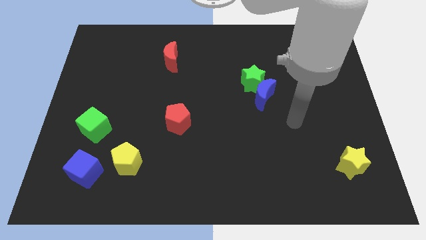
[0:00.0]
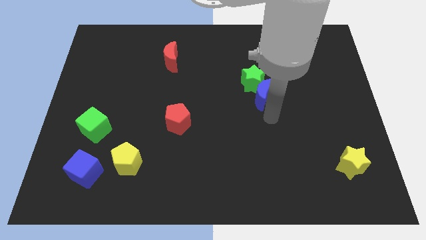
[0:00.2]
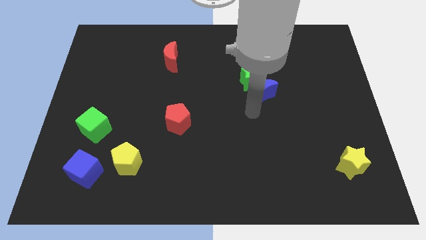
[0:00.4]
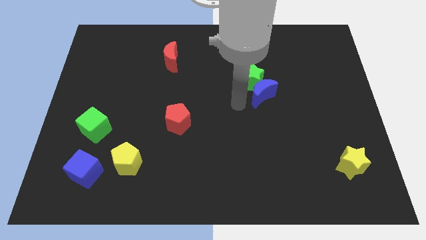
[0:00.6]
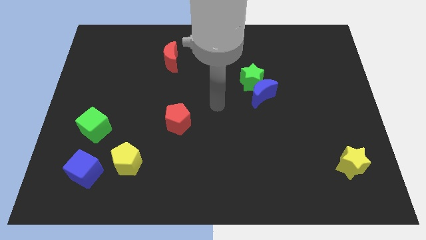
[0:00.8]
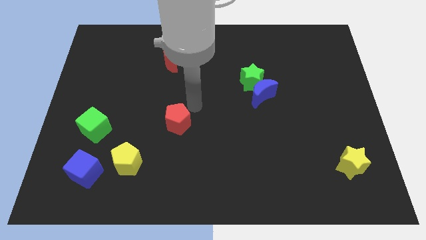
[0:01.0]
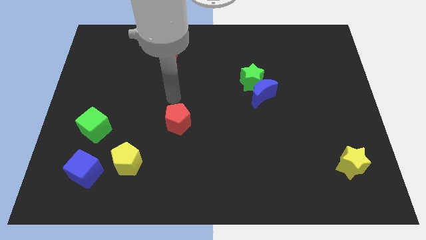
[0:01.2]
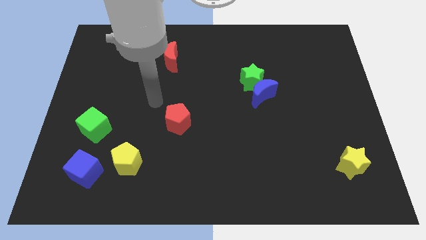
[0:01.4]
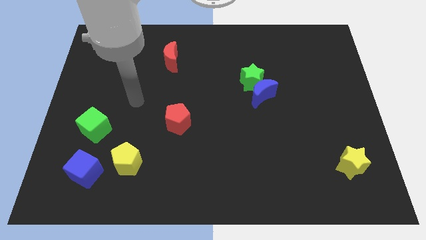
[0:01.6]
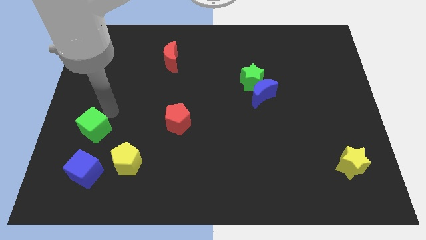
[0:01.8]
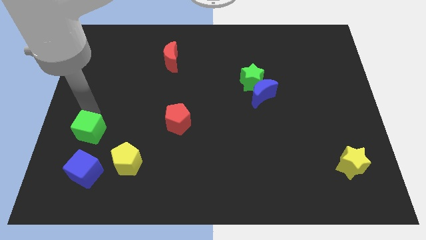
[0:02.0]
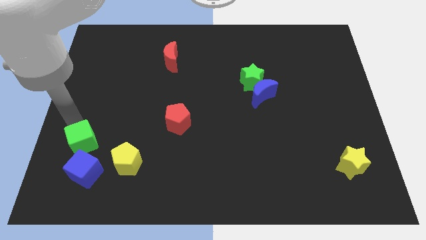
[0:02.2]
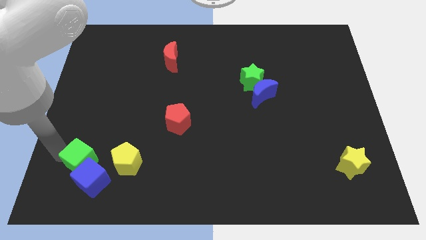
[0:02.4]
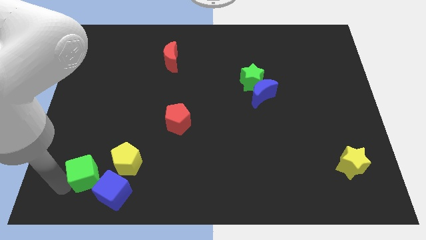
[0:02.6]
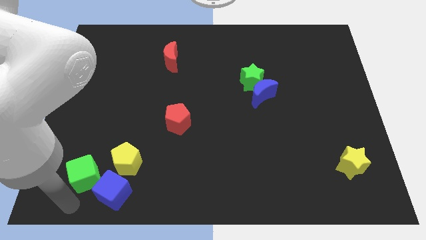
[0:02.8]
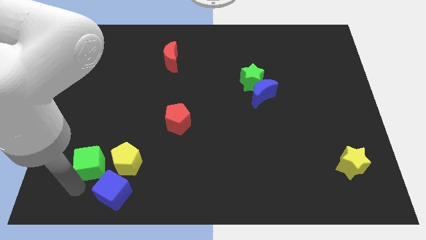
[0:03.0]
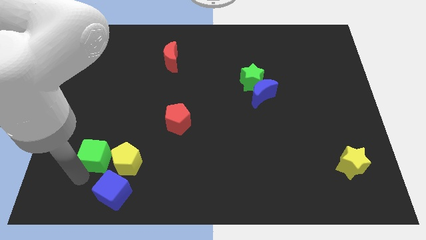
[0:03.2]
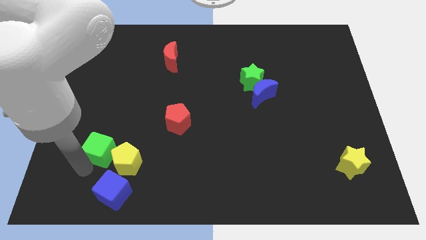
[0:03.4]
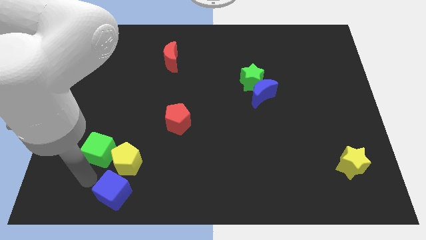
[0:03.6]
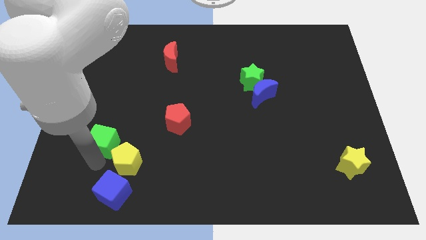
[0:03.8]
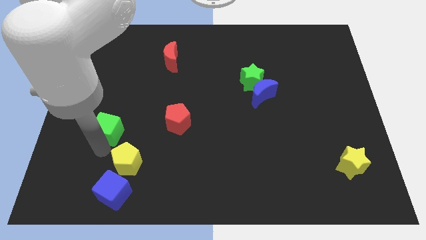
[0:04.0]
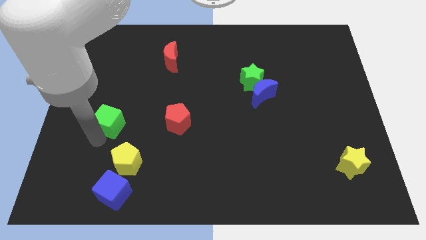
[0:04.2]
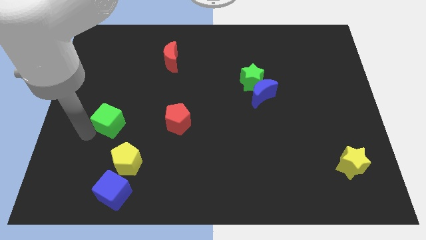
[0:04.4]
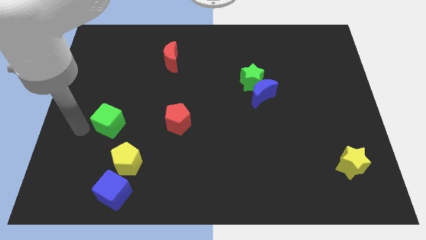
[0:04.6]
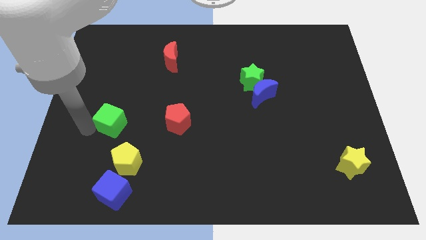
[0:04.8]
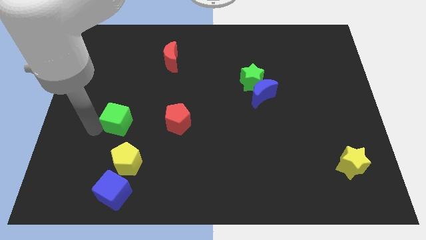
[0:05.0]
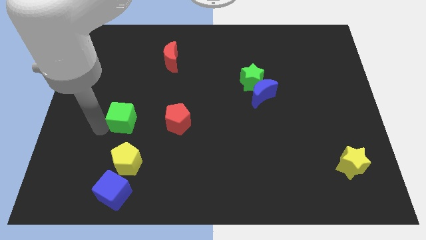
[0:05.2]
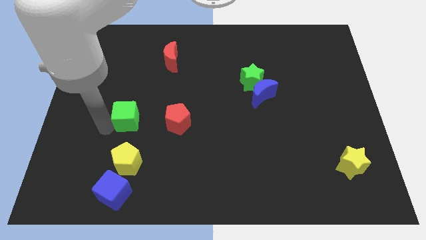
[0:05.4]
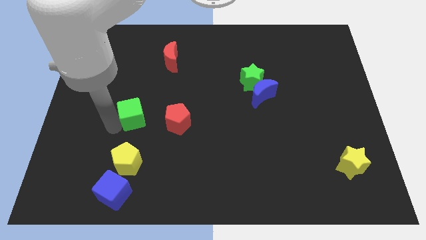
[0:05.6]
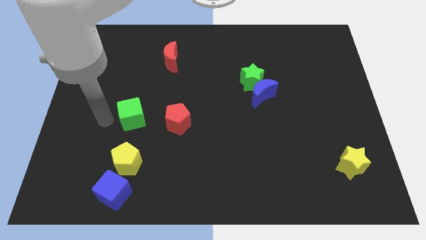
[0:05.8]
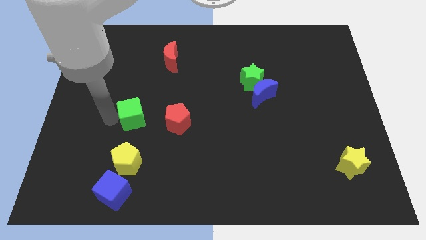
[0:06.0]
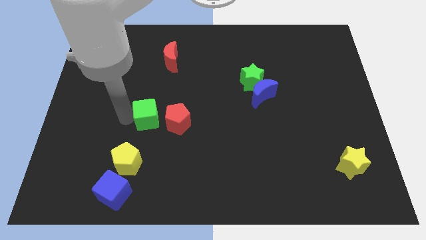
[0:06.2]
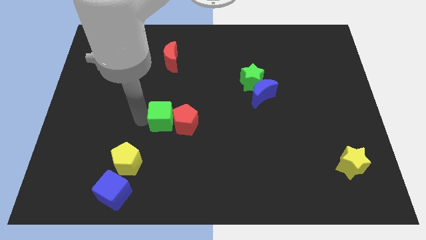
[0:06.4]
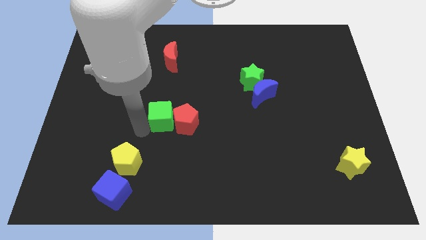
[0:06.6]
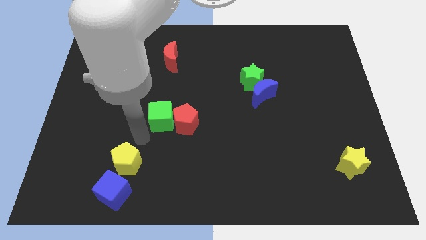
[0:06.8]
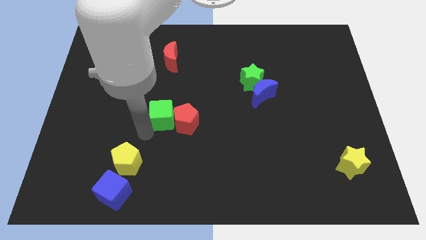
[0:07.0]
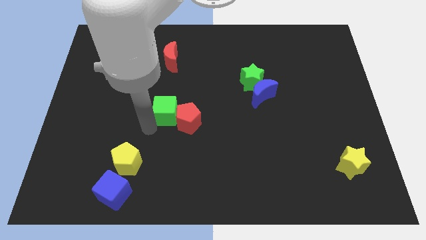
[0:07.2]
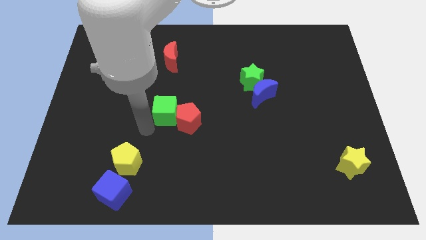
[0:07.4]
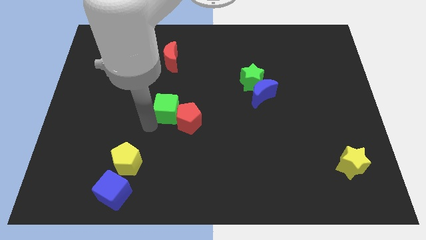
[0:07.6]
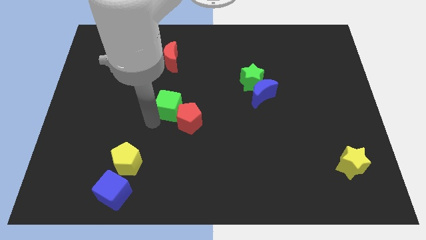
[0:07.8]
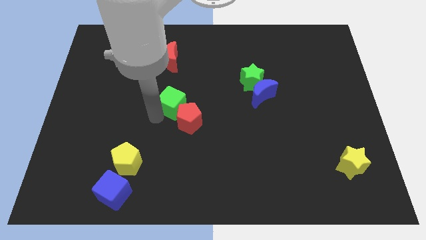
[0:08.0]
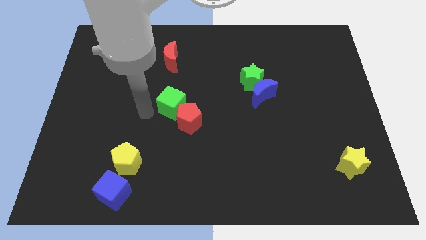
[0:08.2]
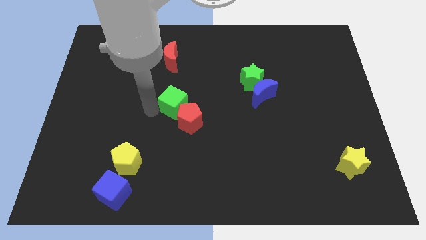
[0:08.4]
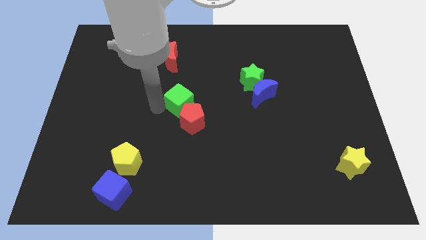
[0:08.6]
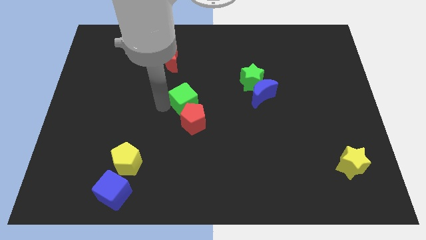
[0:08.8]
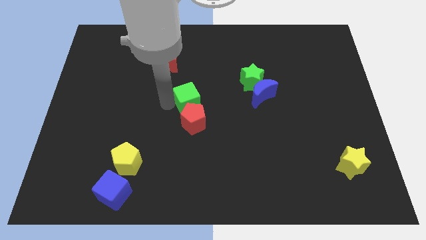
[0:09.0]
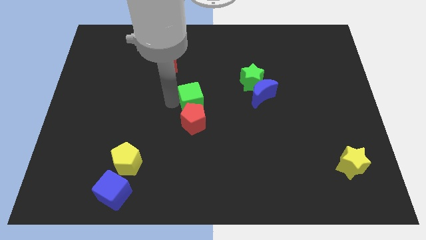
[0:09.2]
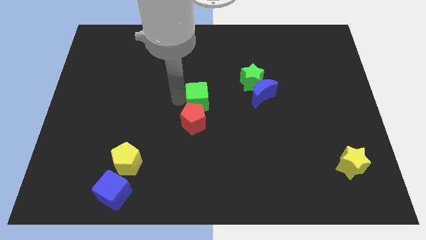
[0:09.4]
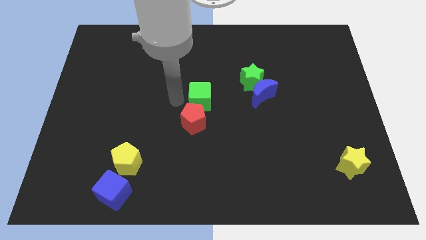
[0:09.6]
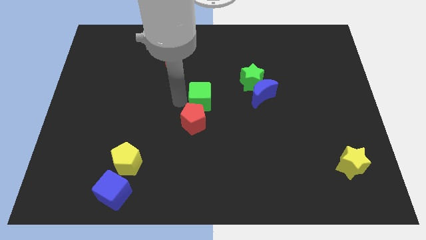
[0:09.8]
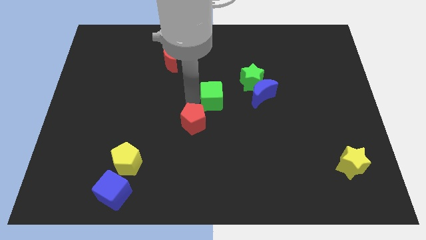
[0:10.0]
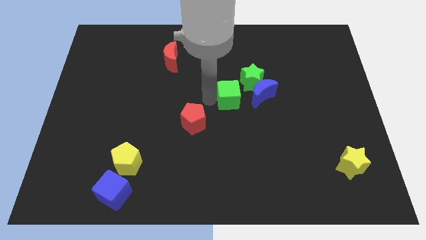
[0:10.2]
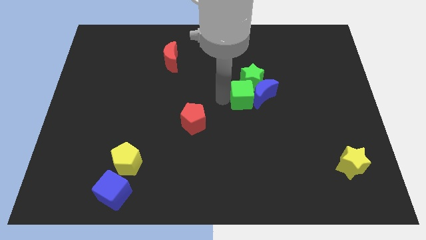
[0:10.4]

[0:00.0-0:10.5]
move the green cube close to the blue moon
